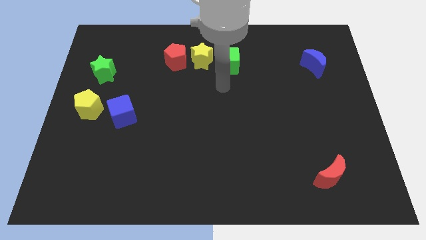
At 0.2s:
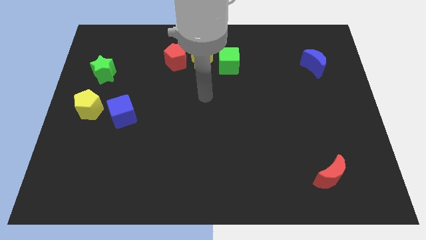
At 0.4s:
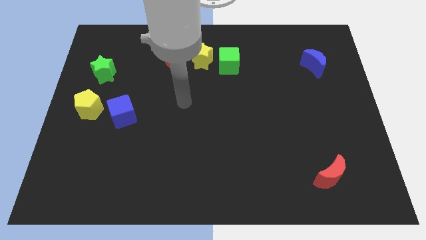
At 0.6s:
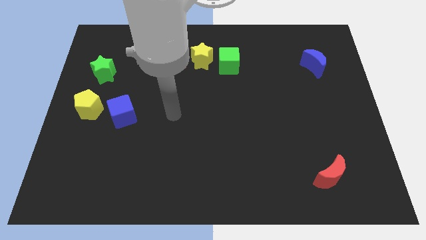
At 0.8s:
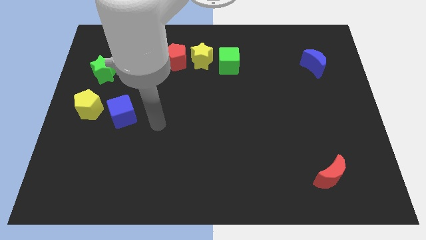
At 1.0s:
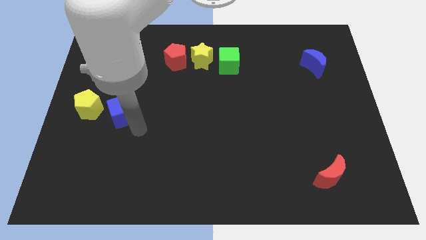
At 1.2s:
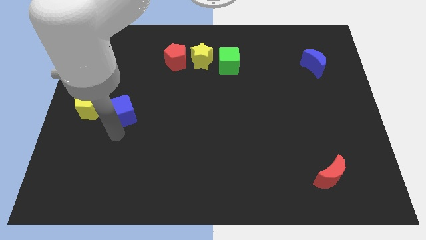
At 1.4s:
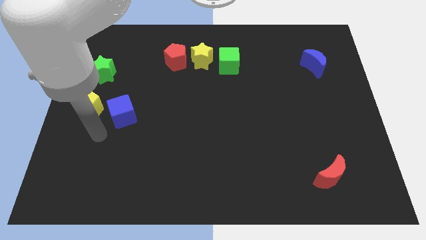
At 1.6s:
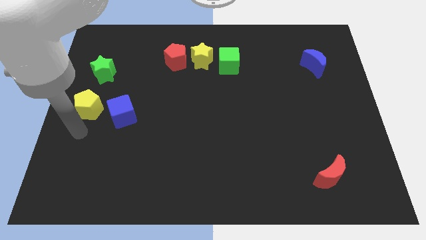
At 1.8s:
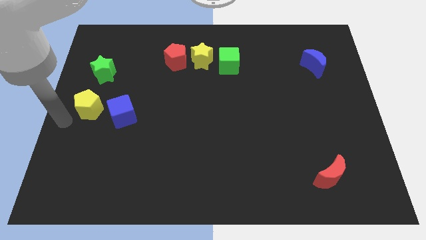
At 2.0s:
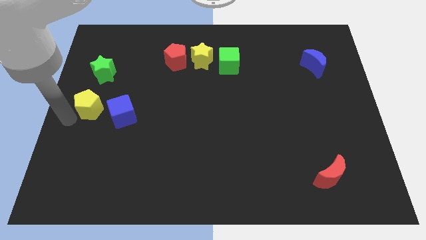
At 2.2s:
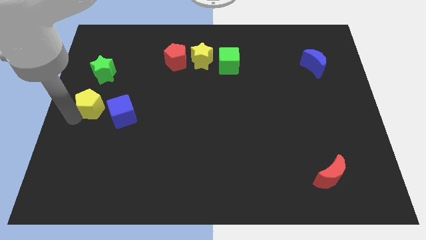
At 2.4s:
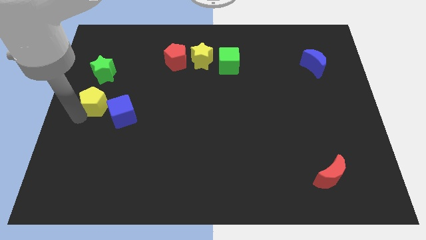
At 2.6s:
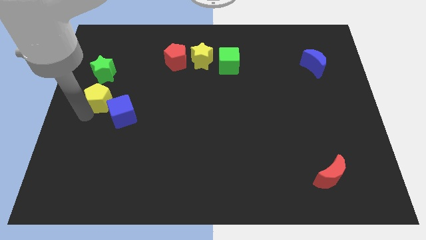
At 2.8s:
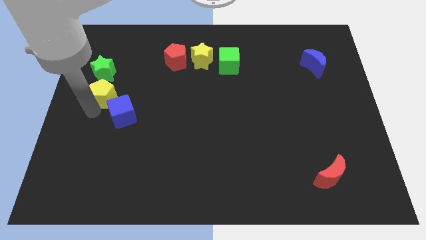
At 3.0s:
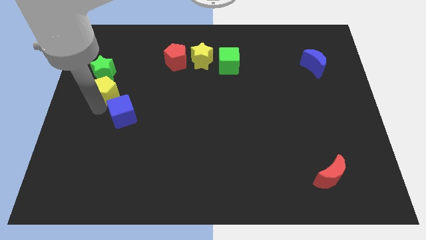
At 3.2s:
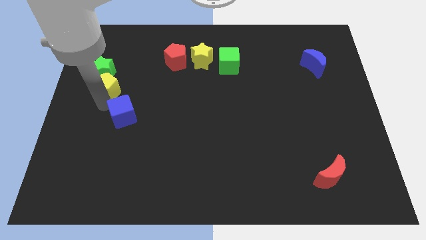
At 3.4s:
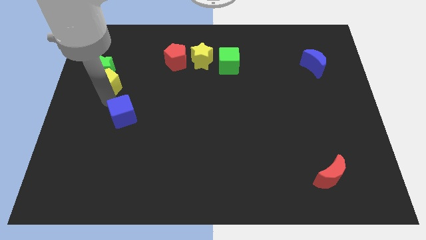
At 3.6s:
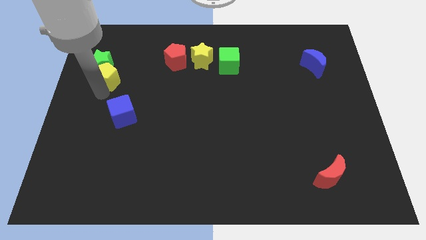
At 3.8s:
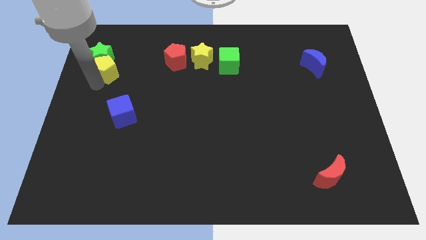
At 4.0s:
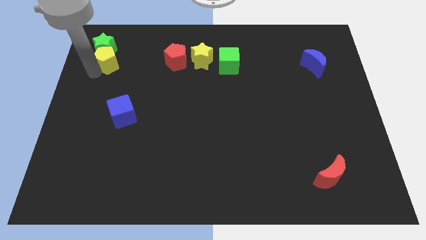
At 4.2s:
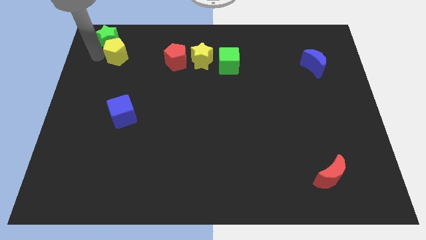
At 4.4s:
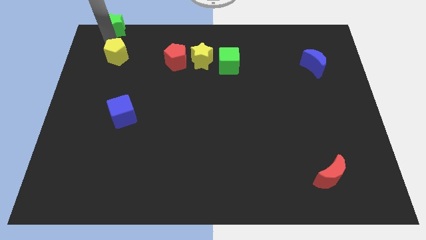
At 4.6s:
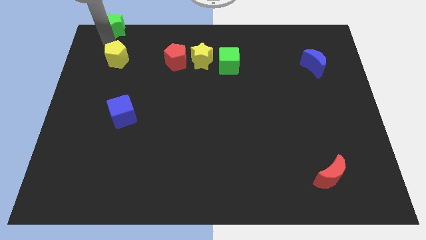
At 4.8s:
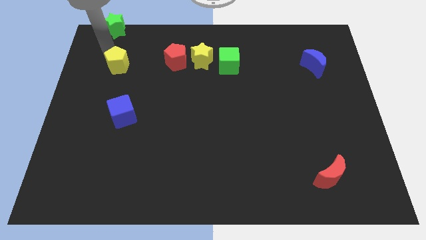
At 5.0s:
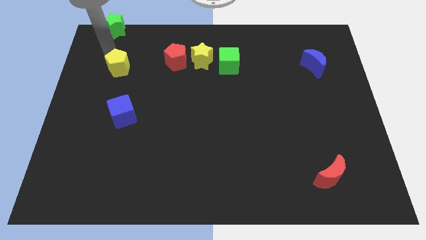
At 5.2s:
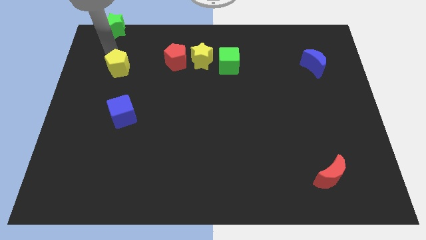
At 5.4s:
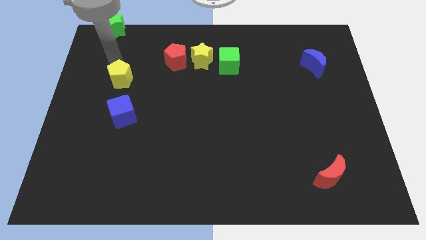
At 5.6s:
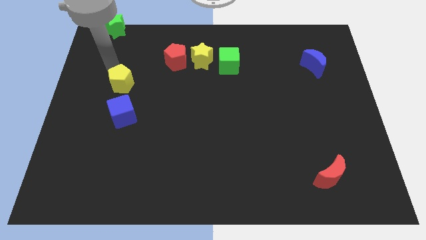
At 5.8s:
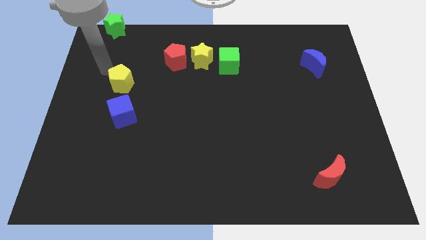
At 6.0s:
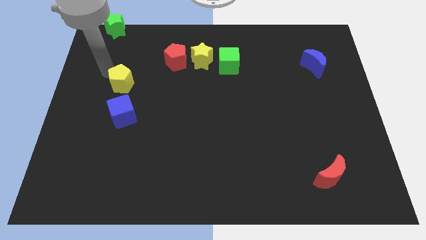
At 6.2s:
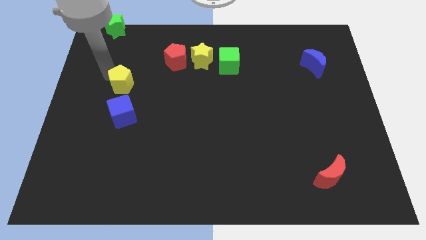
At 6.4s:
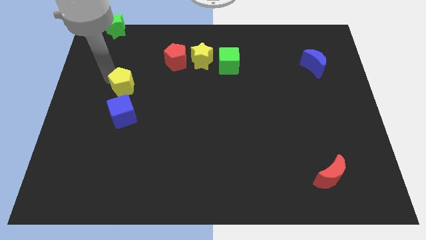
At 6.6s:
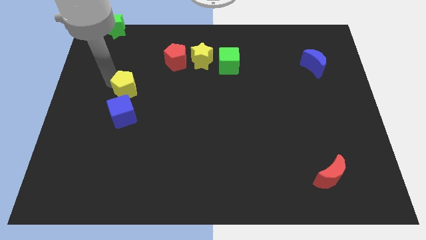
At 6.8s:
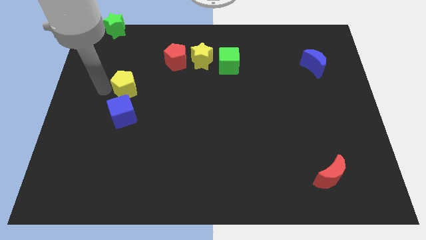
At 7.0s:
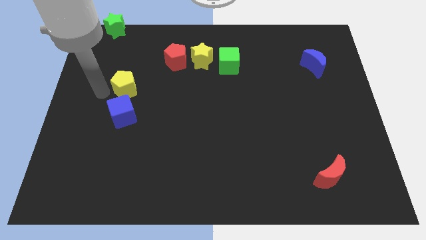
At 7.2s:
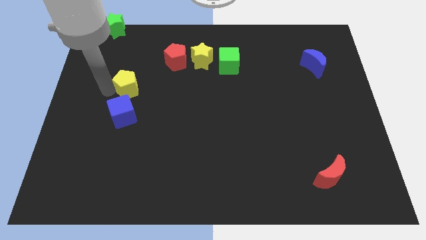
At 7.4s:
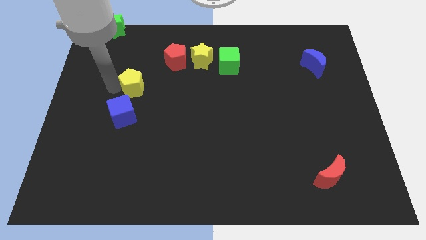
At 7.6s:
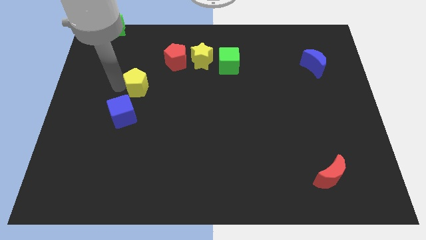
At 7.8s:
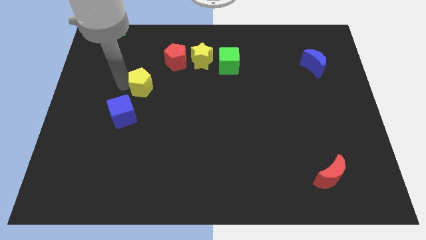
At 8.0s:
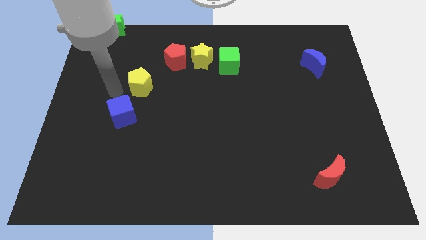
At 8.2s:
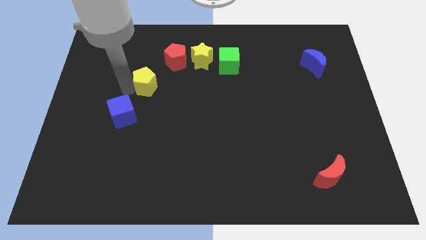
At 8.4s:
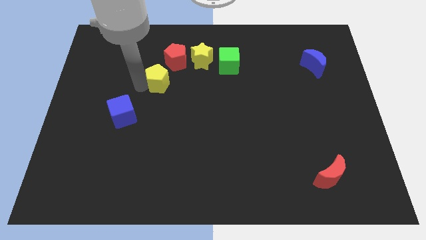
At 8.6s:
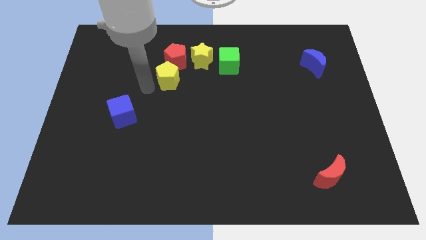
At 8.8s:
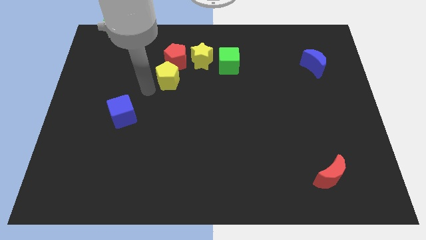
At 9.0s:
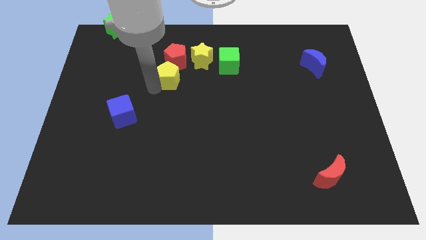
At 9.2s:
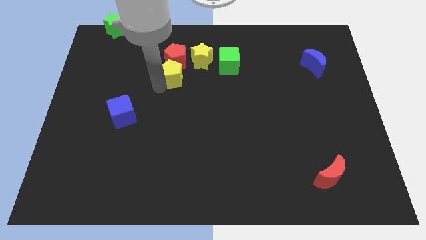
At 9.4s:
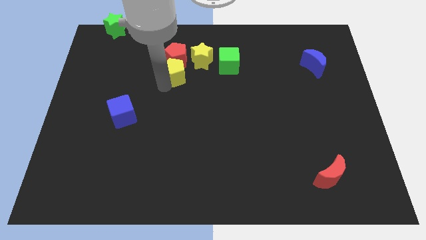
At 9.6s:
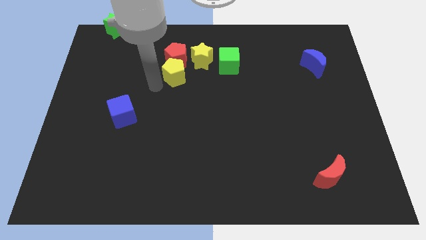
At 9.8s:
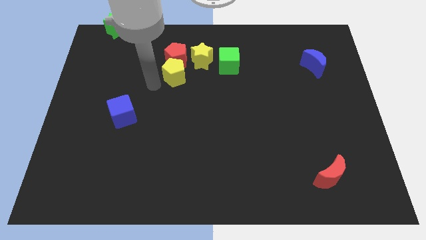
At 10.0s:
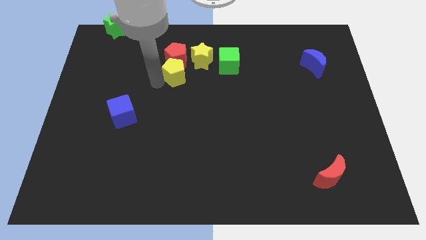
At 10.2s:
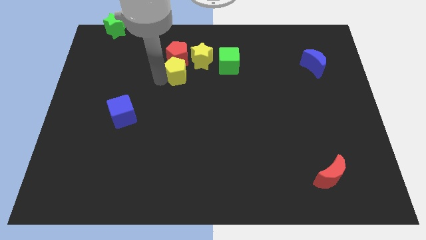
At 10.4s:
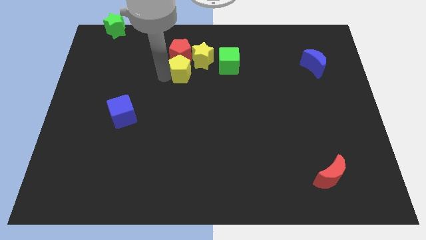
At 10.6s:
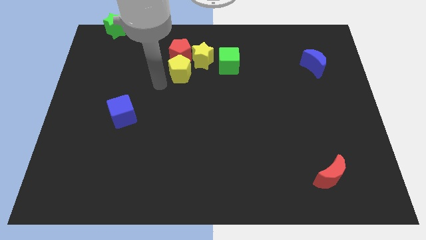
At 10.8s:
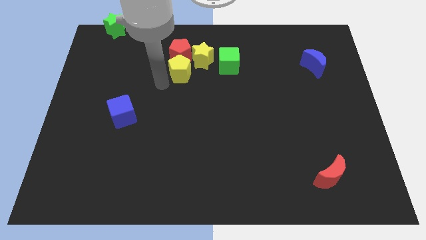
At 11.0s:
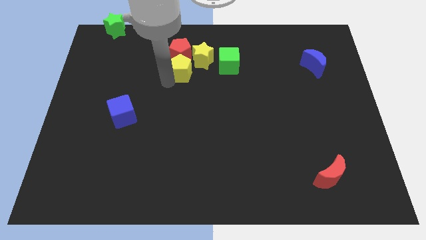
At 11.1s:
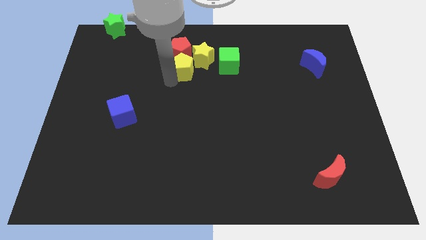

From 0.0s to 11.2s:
move the yellow pentagon to the yellow star

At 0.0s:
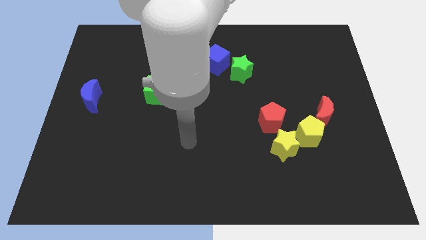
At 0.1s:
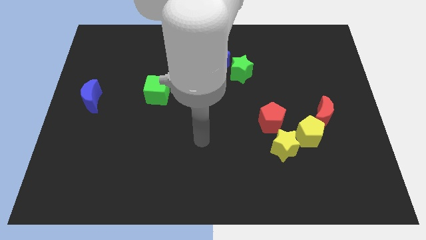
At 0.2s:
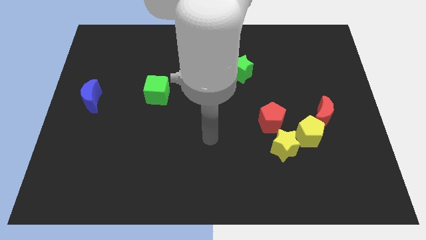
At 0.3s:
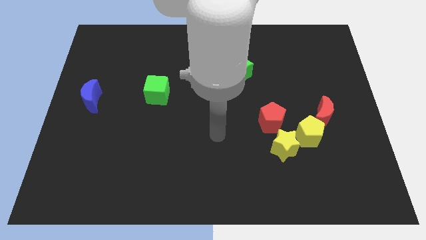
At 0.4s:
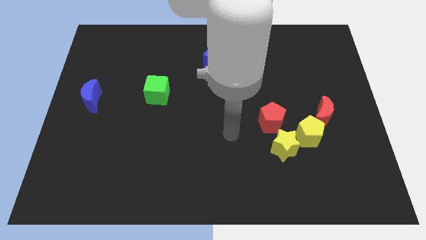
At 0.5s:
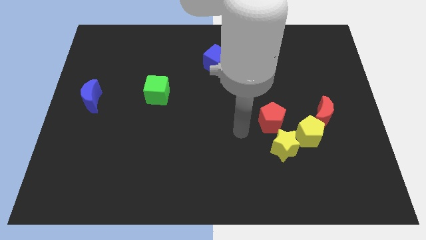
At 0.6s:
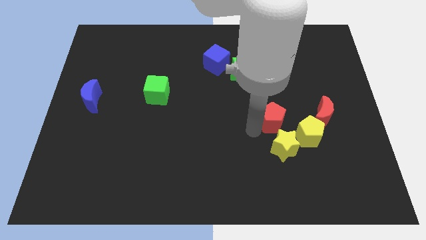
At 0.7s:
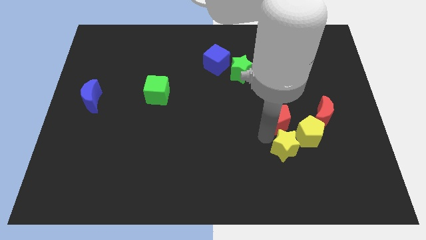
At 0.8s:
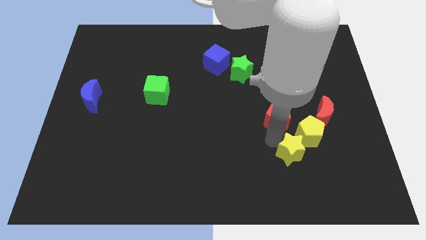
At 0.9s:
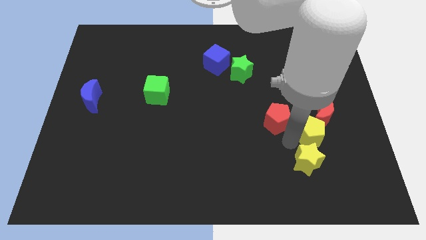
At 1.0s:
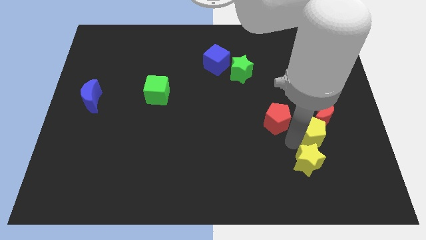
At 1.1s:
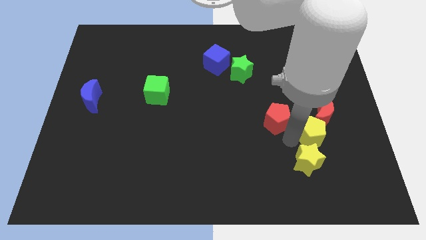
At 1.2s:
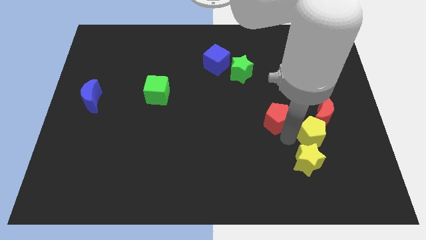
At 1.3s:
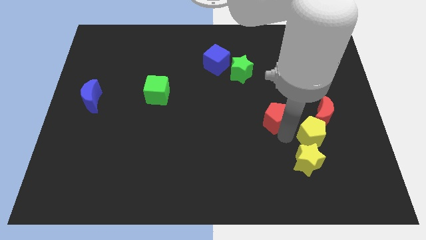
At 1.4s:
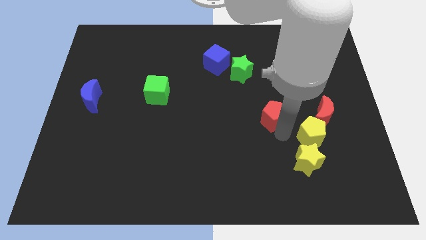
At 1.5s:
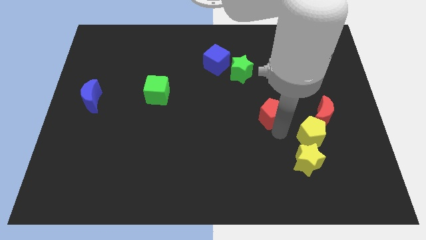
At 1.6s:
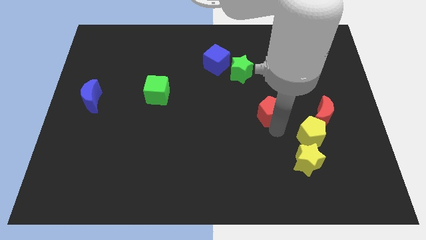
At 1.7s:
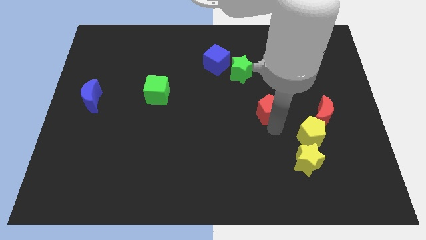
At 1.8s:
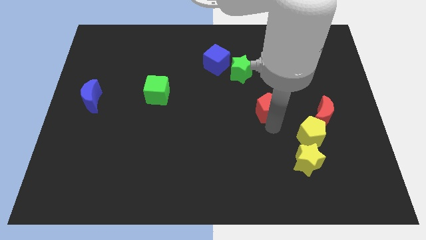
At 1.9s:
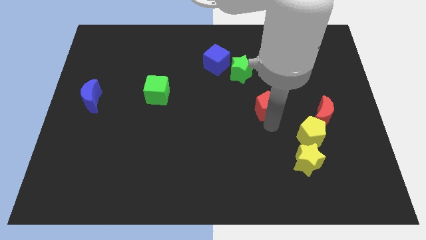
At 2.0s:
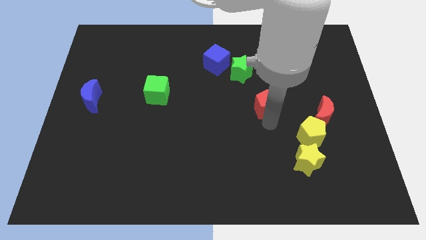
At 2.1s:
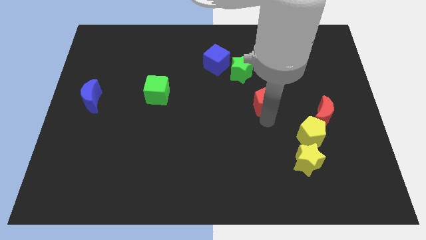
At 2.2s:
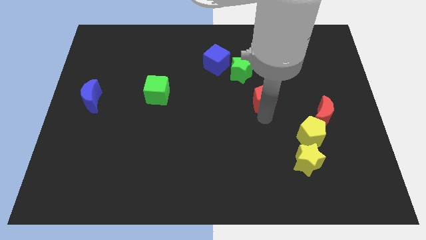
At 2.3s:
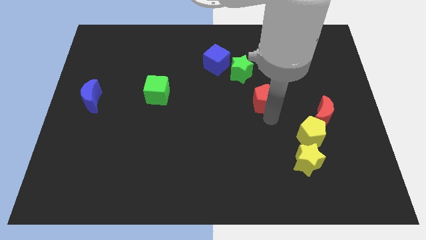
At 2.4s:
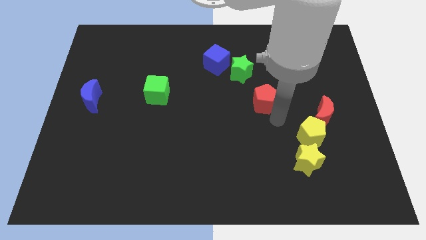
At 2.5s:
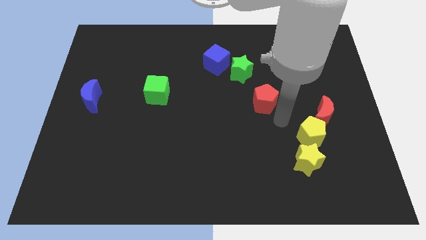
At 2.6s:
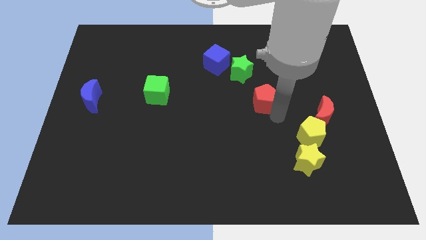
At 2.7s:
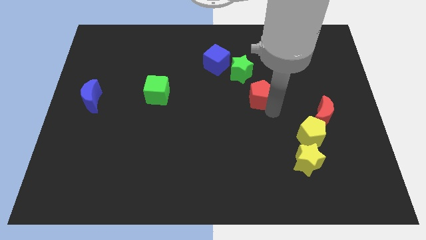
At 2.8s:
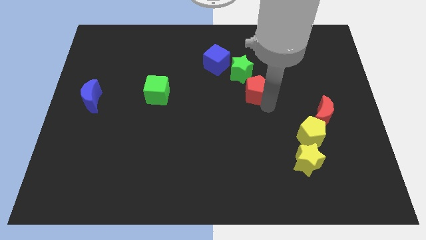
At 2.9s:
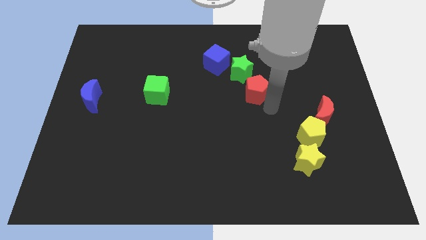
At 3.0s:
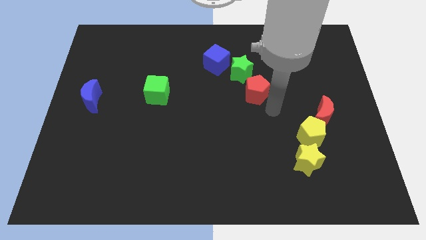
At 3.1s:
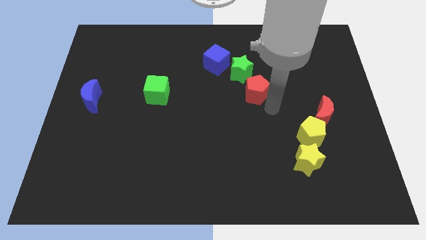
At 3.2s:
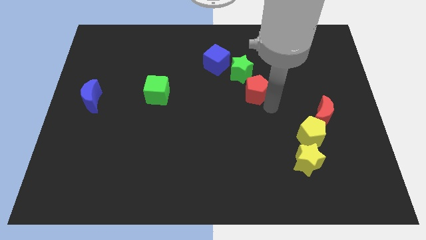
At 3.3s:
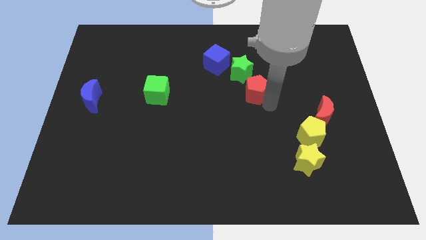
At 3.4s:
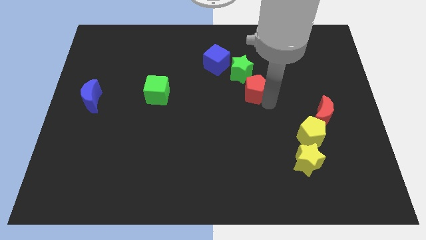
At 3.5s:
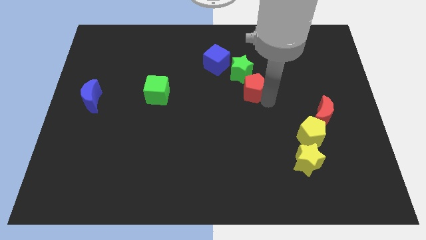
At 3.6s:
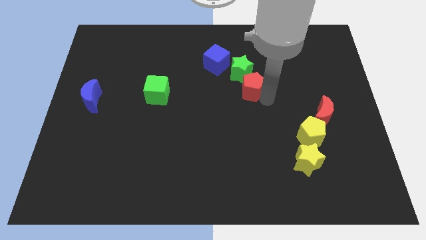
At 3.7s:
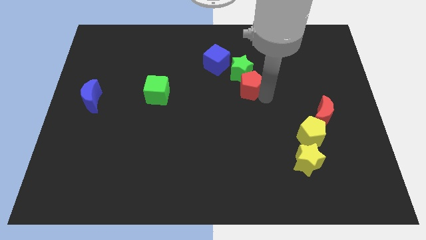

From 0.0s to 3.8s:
slide the red pentagon to the green star
